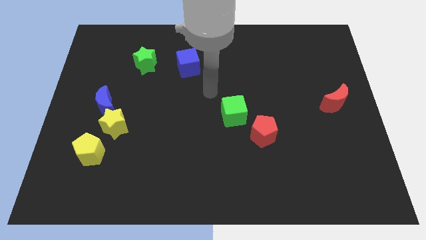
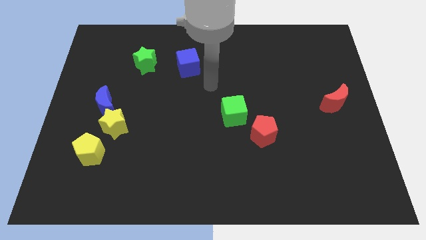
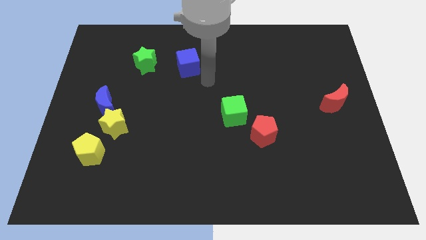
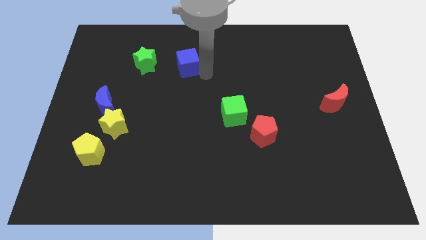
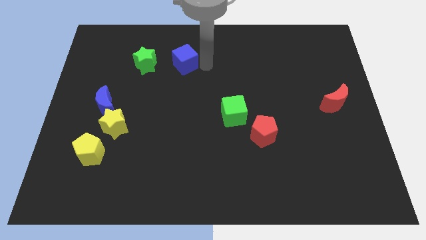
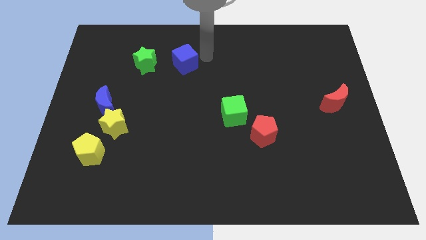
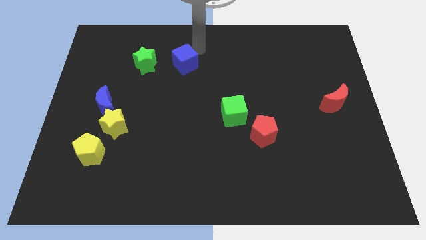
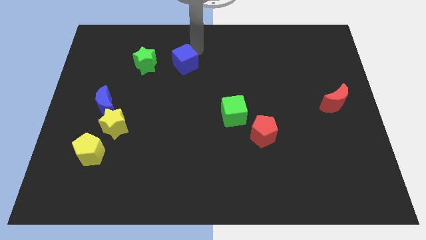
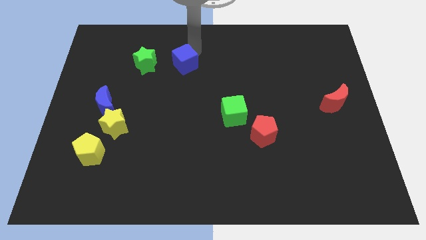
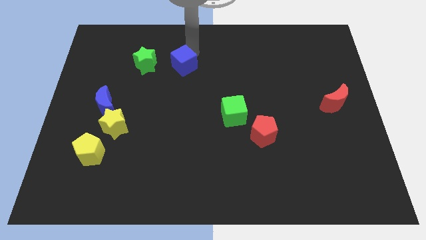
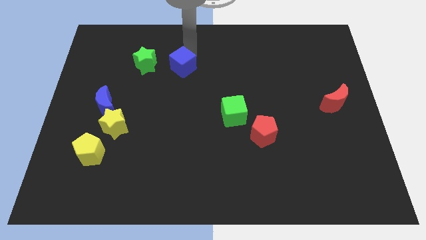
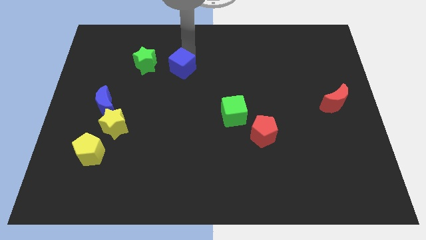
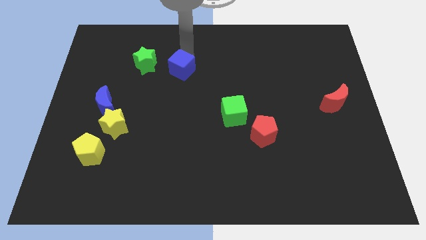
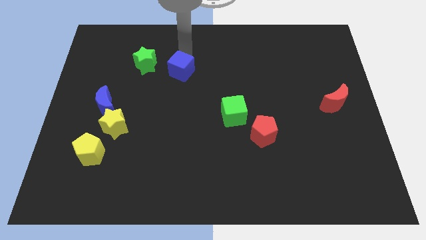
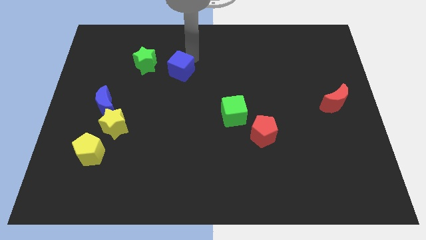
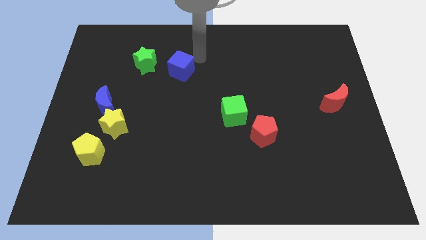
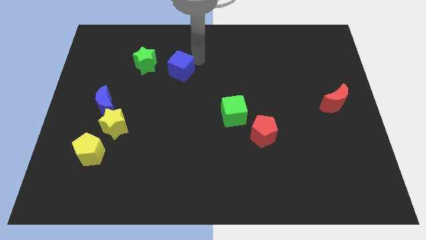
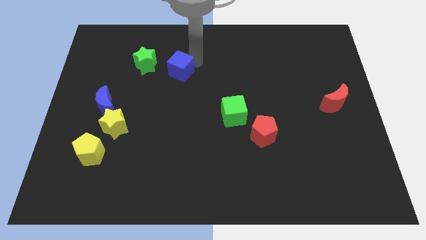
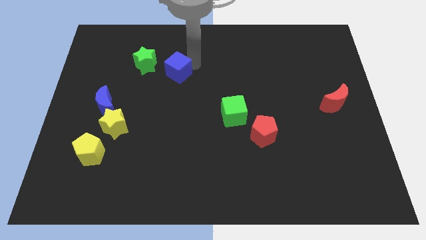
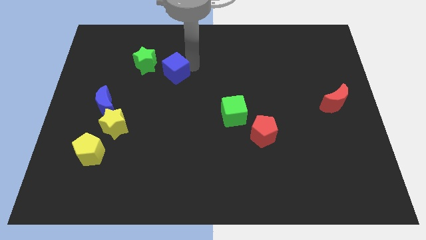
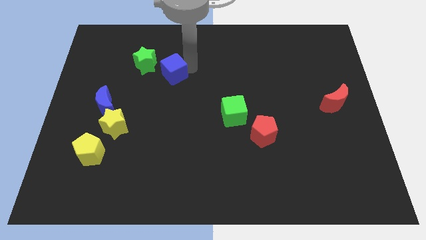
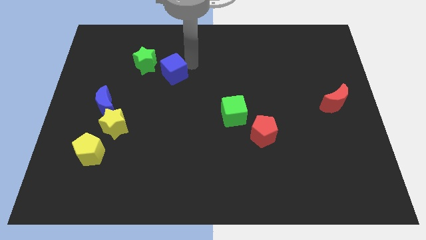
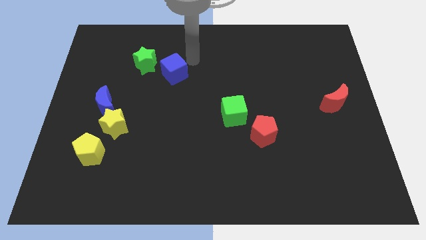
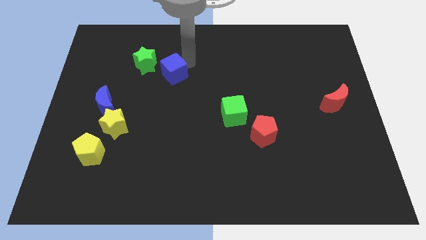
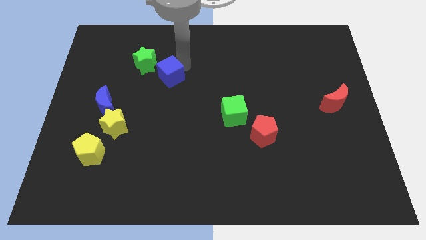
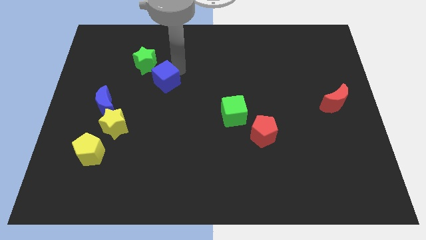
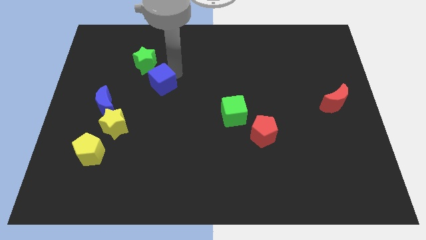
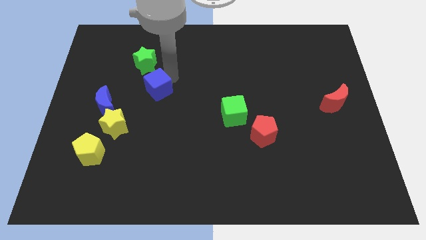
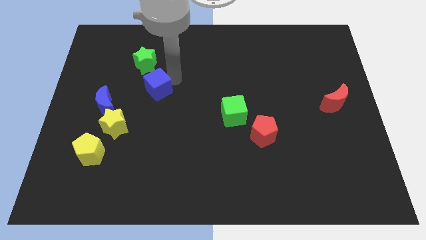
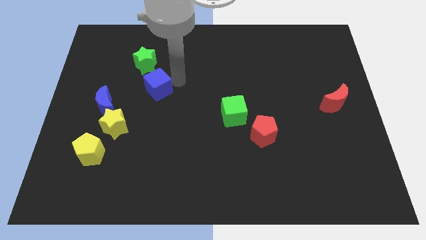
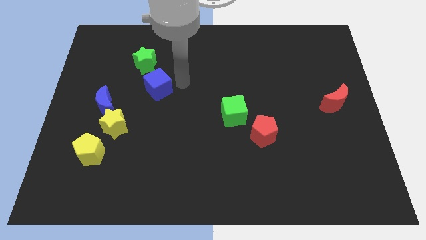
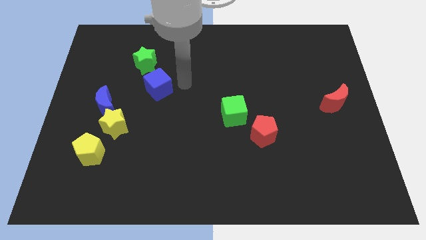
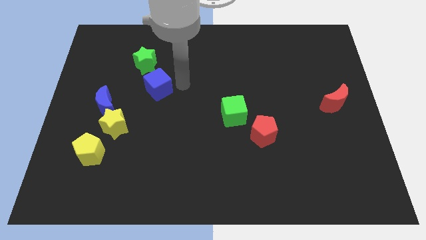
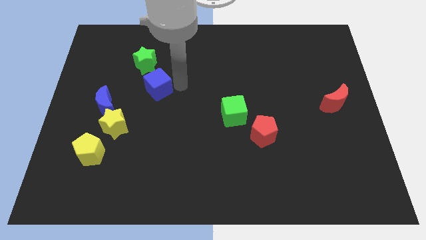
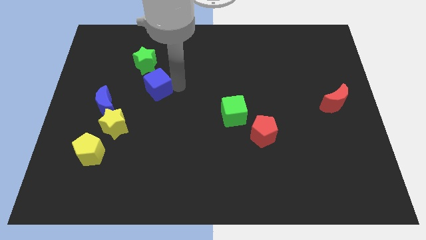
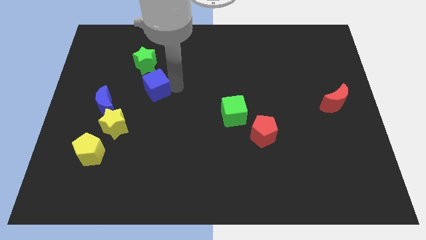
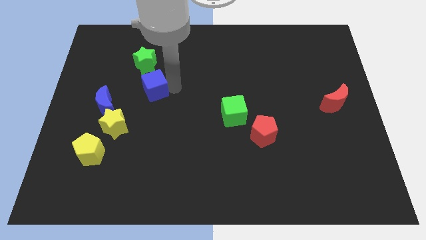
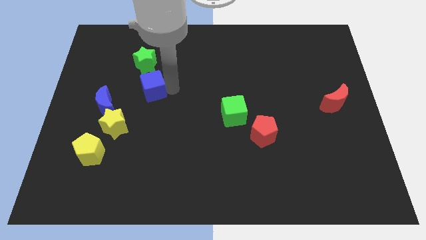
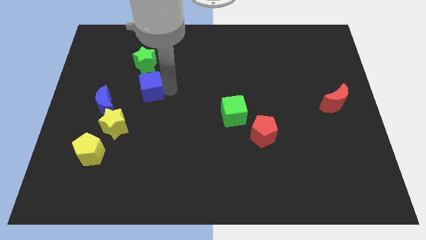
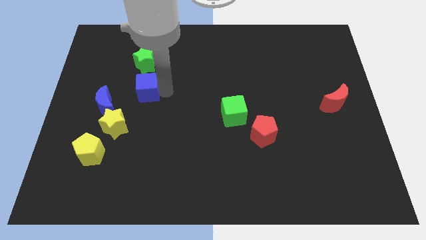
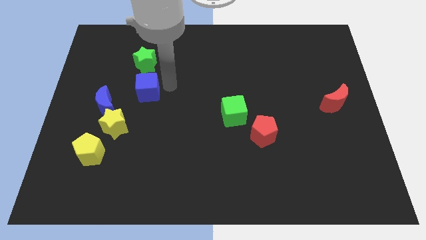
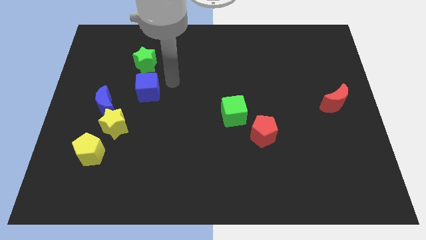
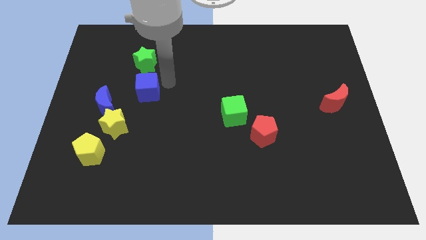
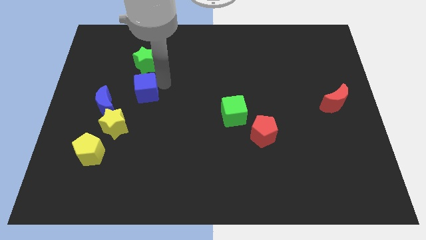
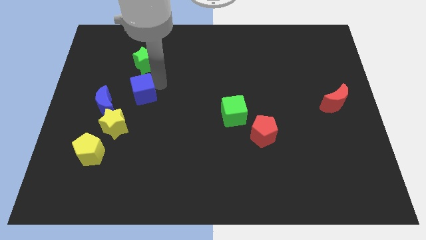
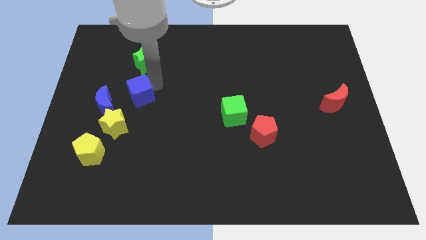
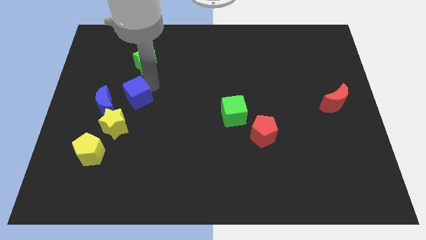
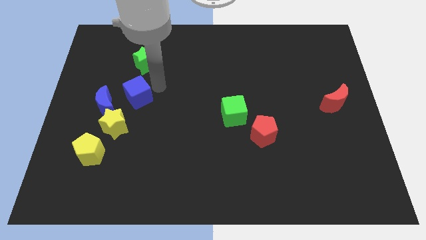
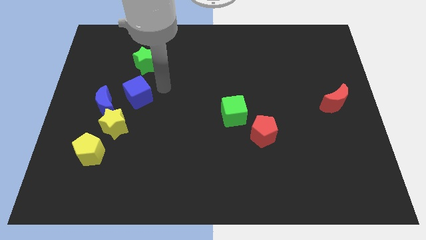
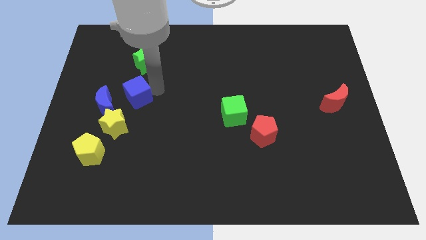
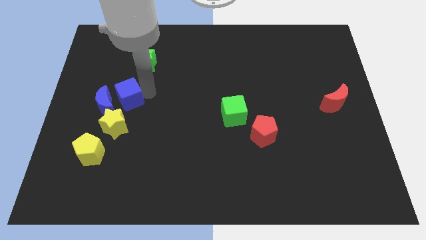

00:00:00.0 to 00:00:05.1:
put the blue cube next to the blue moon

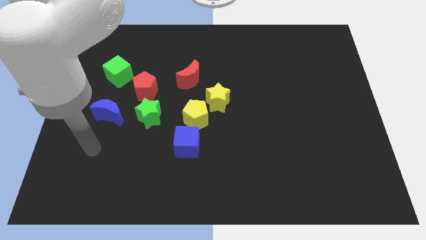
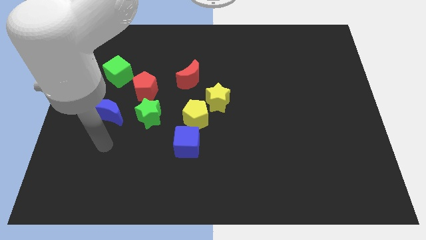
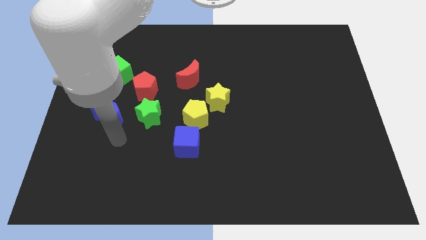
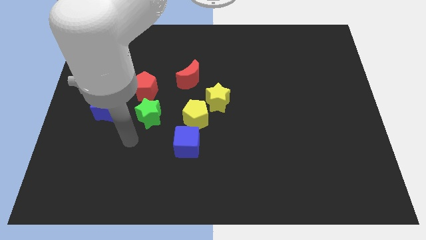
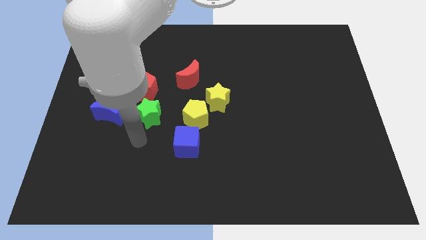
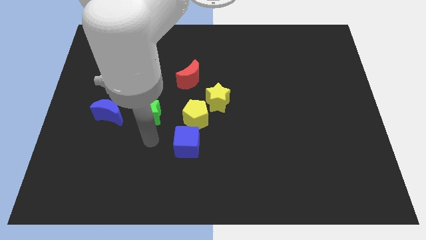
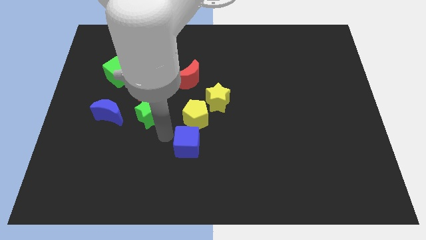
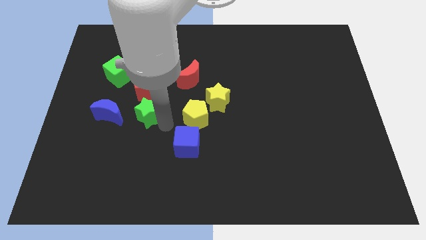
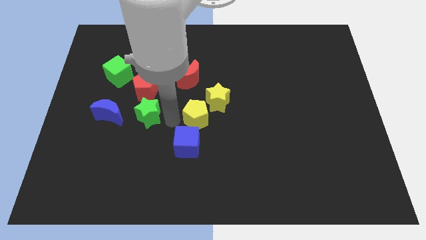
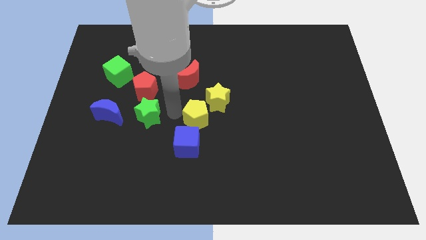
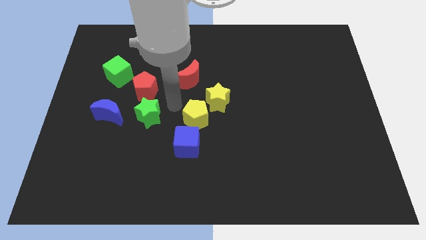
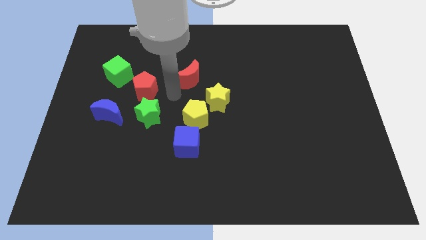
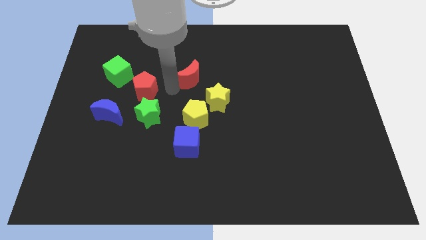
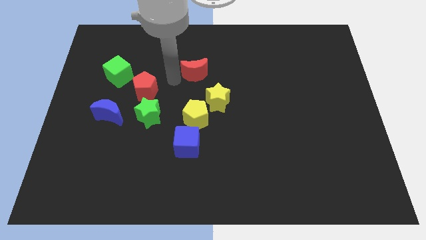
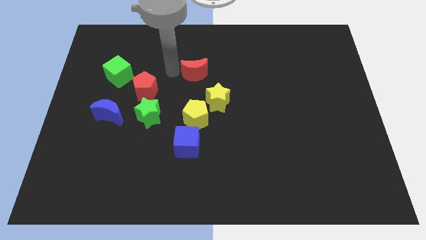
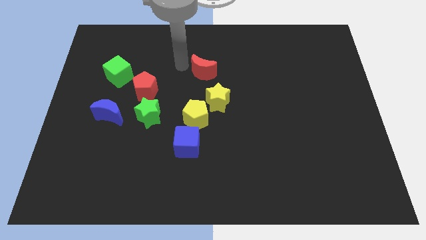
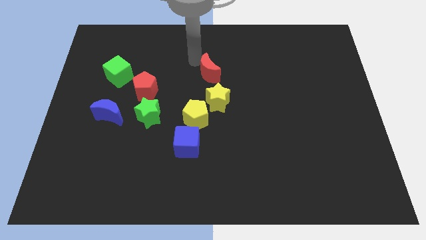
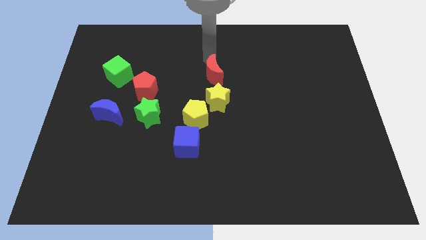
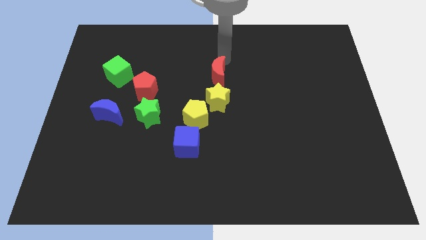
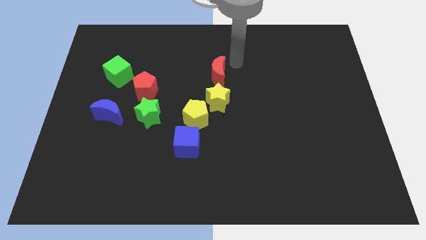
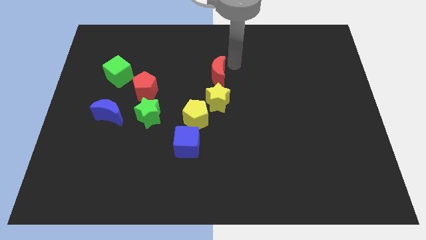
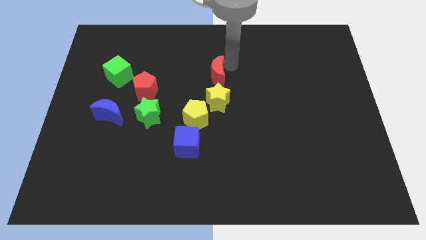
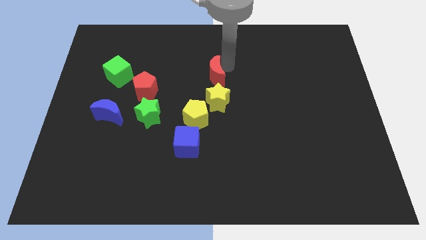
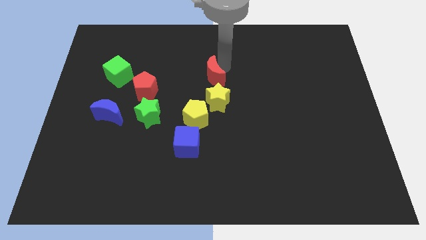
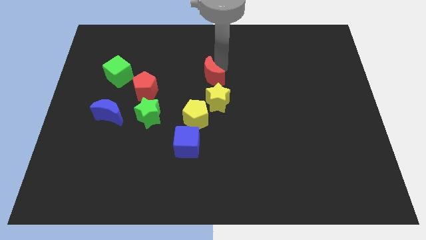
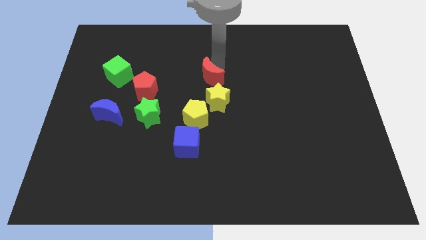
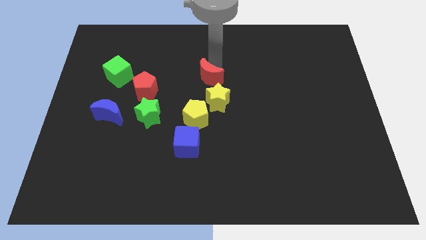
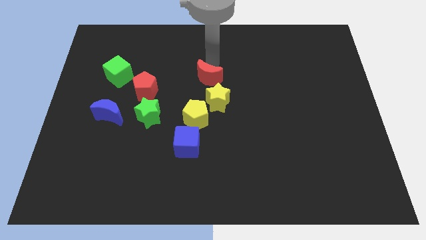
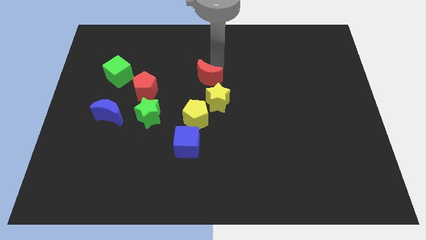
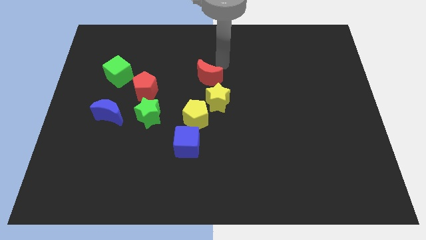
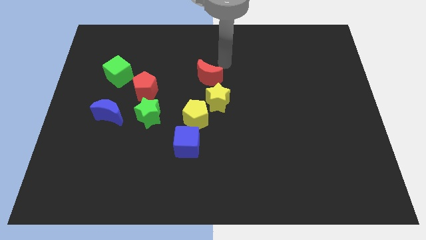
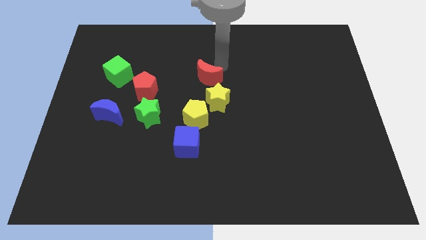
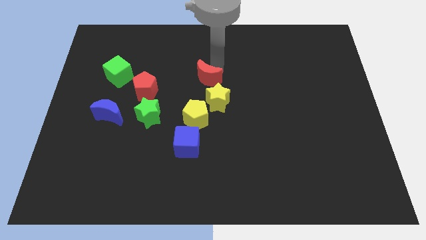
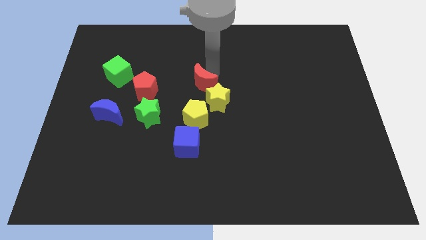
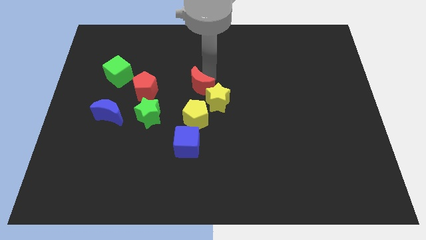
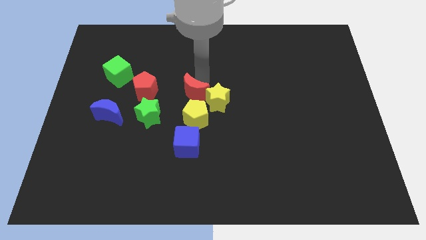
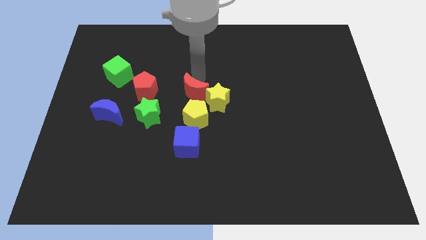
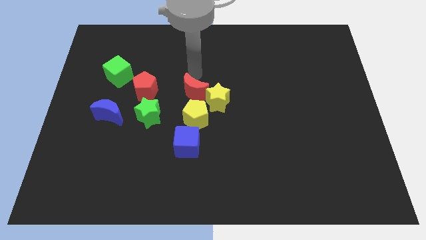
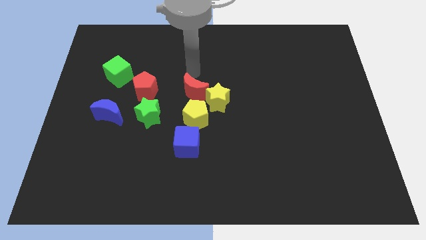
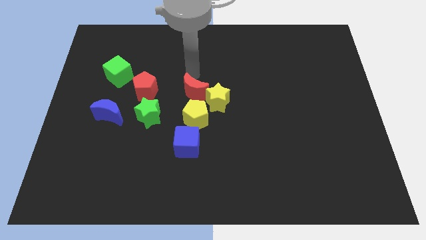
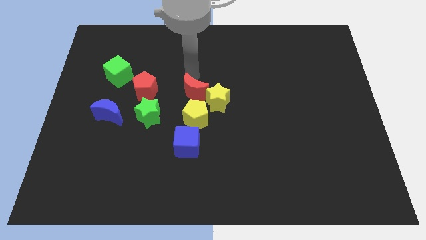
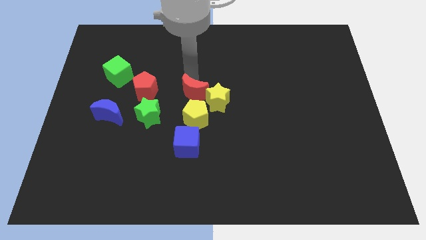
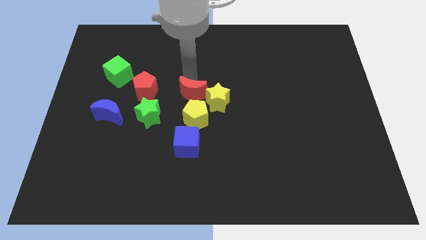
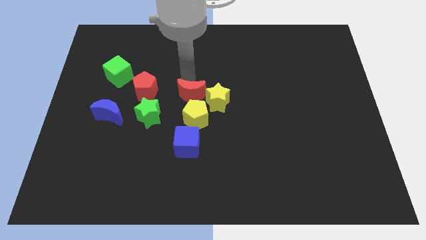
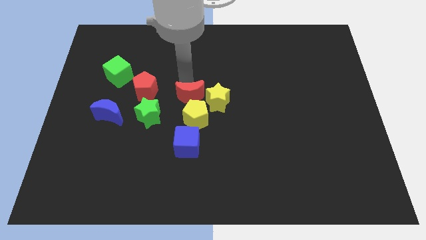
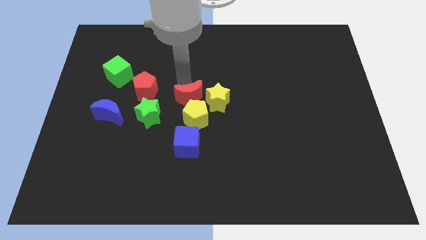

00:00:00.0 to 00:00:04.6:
move the red moon close to the yellow pentagon
